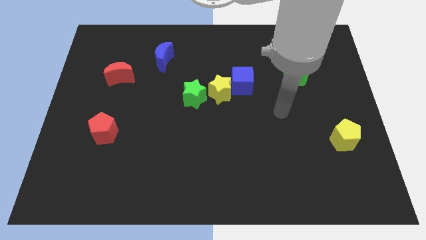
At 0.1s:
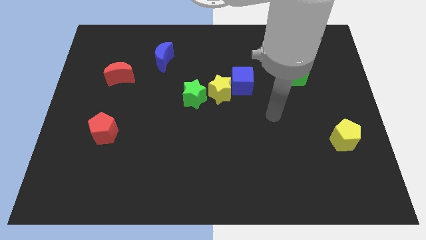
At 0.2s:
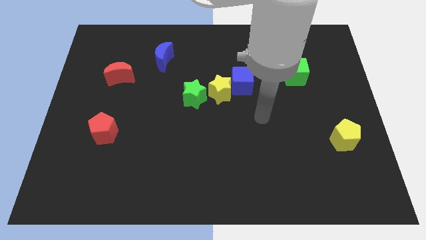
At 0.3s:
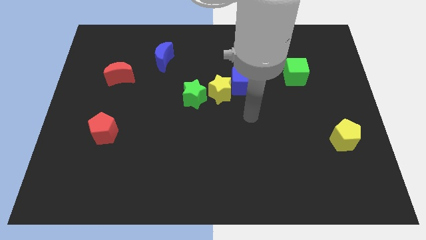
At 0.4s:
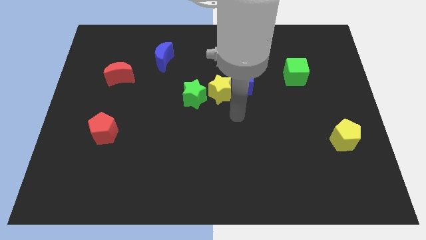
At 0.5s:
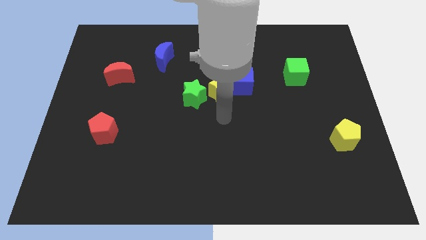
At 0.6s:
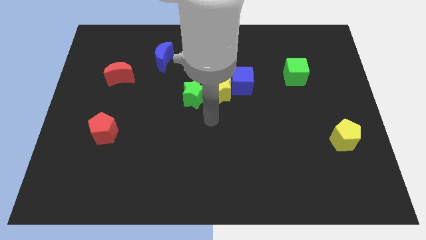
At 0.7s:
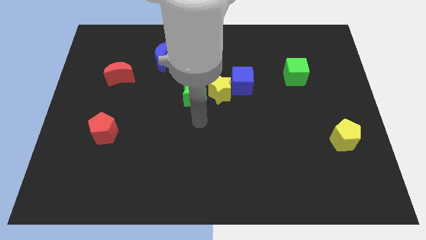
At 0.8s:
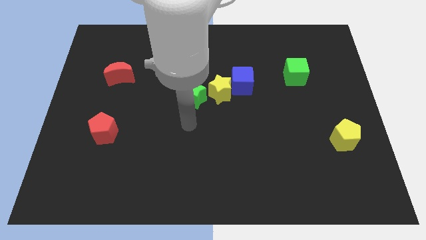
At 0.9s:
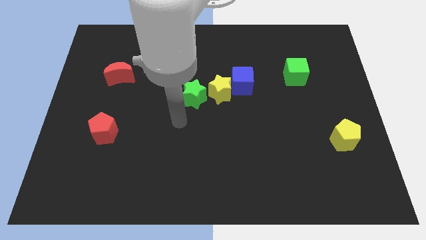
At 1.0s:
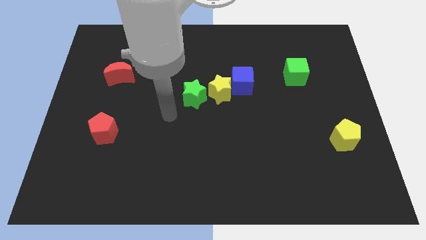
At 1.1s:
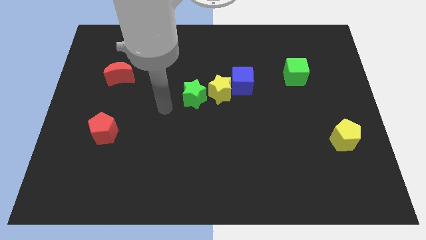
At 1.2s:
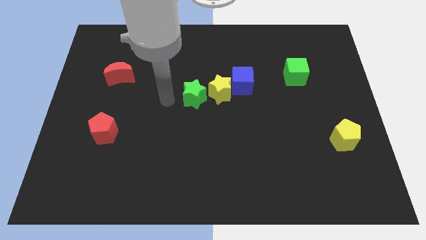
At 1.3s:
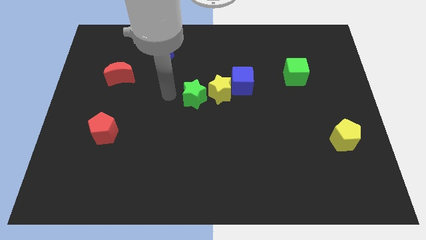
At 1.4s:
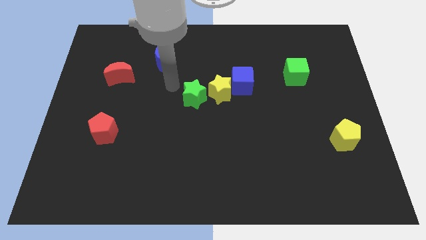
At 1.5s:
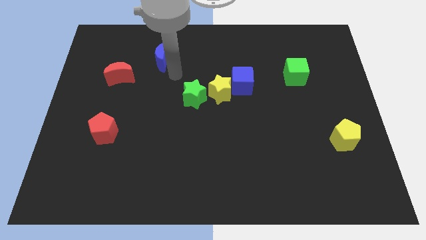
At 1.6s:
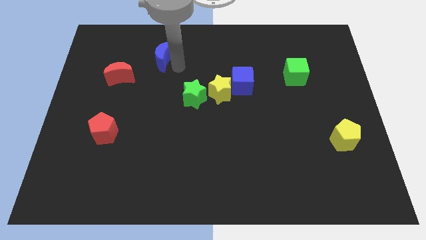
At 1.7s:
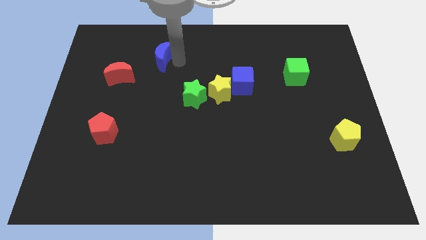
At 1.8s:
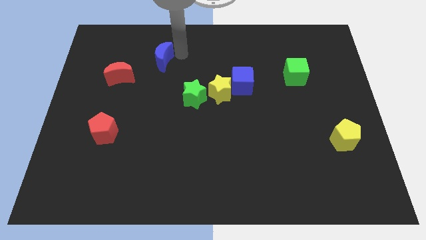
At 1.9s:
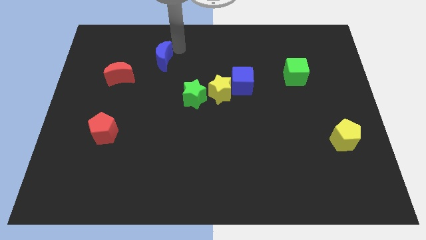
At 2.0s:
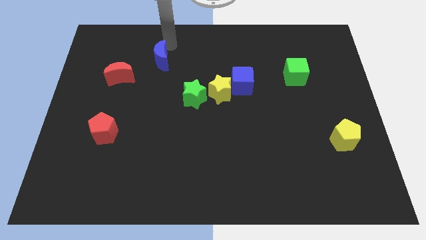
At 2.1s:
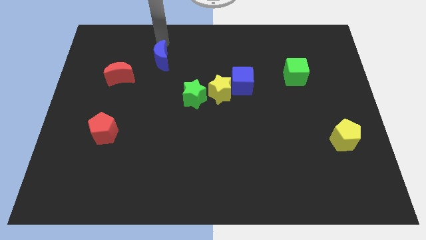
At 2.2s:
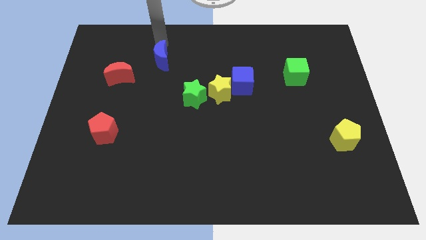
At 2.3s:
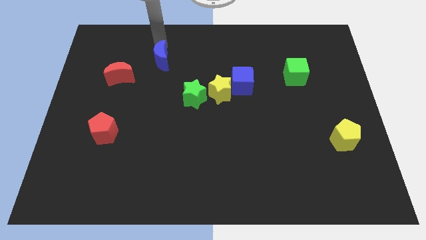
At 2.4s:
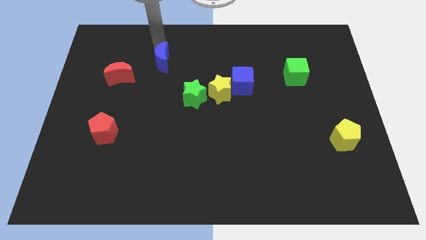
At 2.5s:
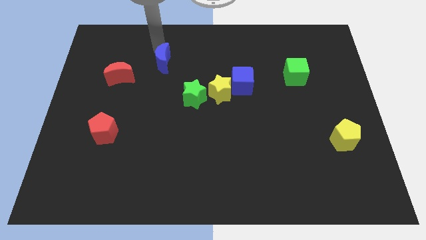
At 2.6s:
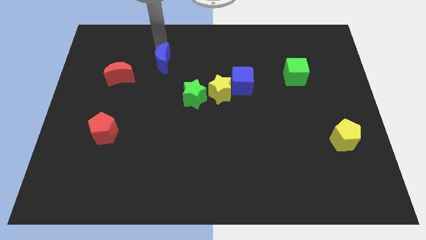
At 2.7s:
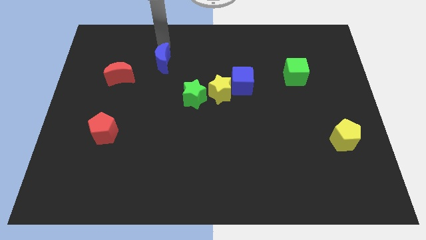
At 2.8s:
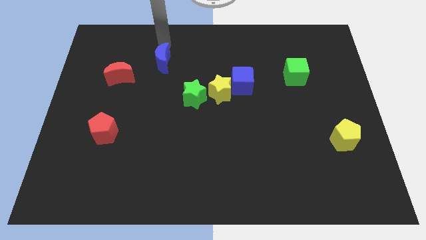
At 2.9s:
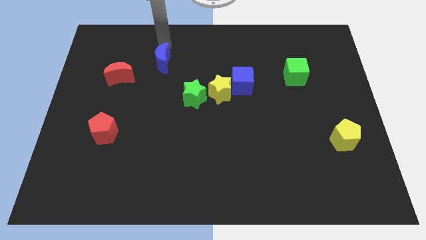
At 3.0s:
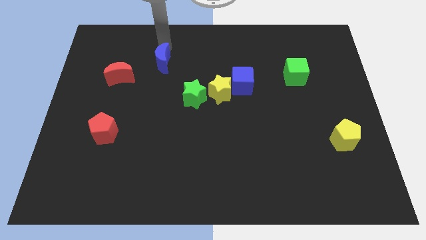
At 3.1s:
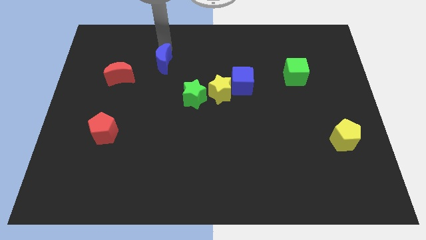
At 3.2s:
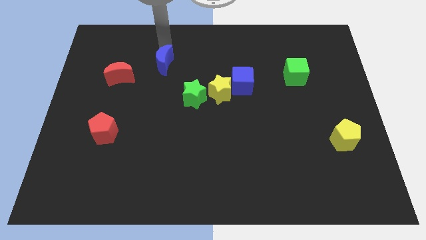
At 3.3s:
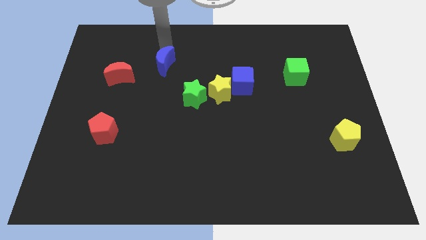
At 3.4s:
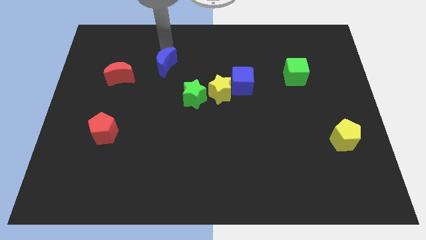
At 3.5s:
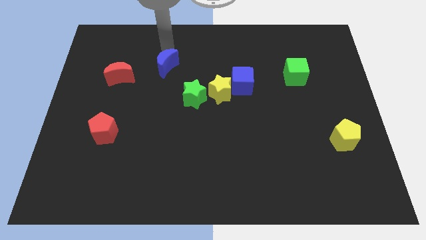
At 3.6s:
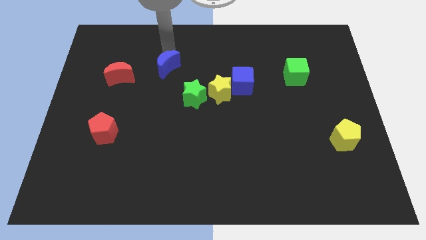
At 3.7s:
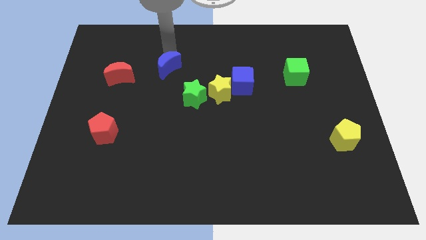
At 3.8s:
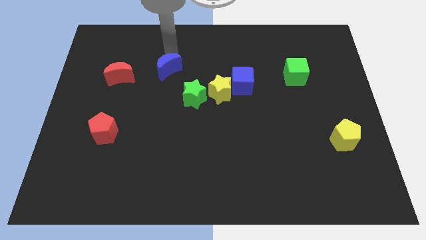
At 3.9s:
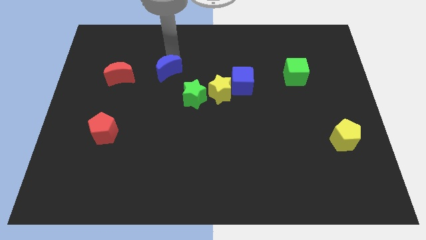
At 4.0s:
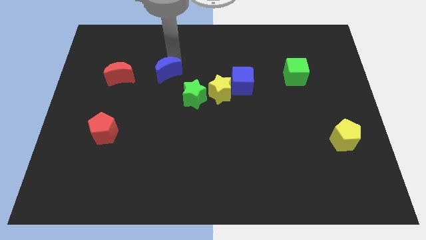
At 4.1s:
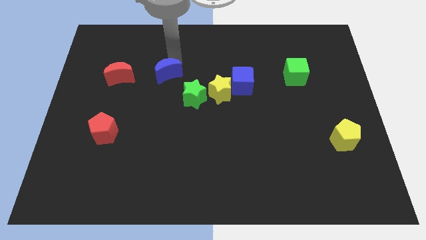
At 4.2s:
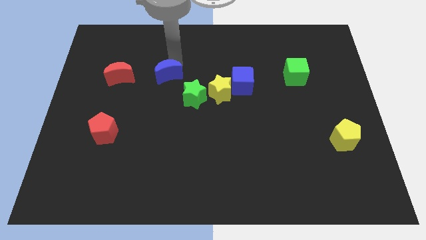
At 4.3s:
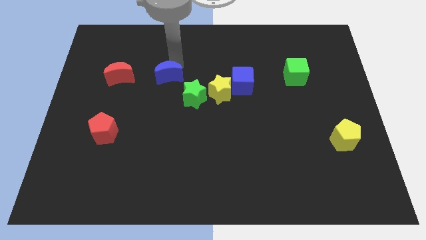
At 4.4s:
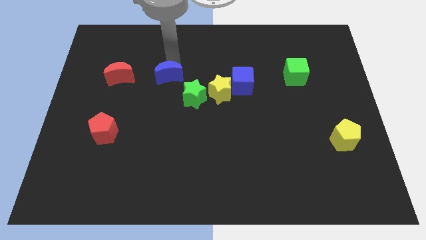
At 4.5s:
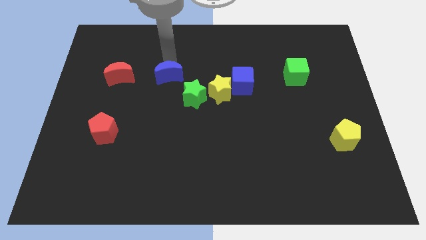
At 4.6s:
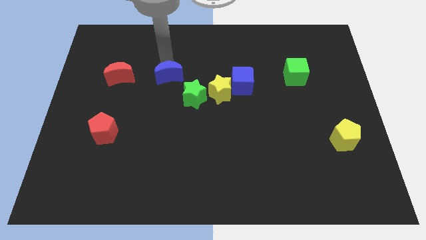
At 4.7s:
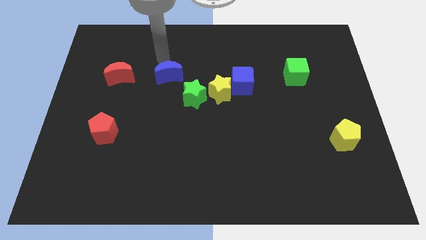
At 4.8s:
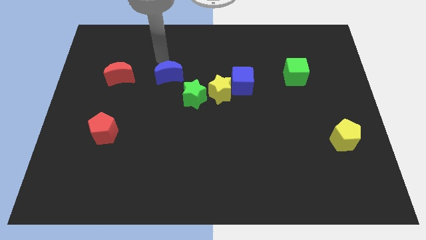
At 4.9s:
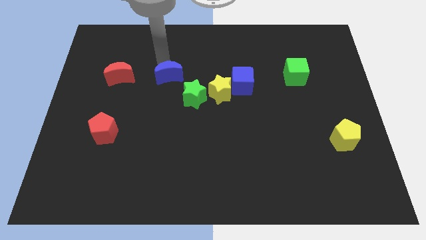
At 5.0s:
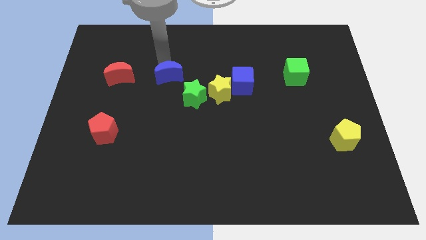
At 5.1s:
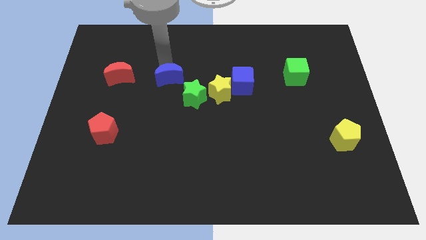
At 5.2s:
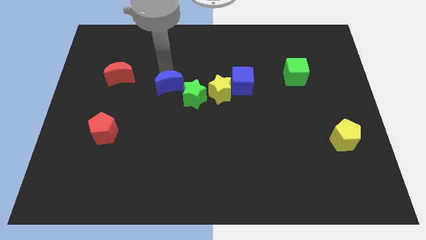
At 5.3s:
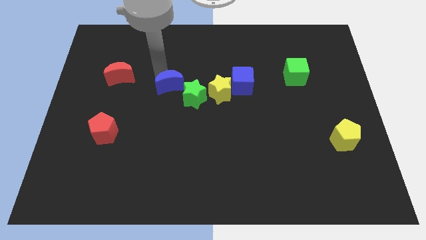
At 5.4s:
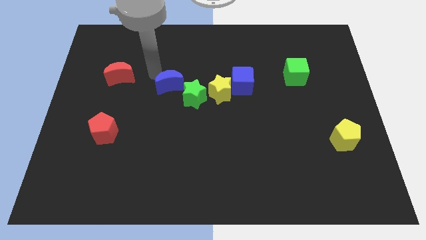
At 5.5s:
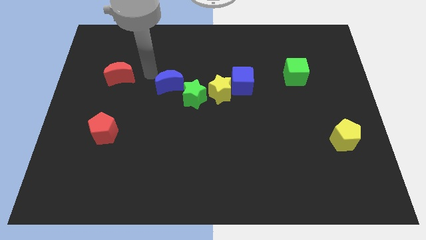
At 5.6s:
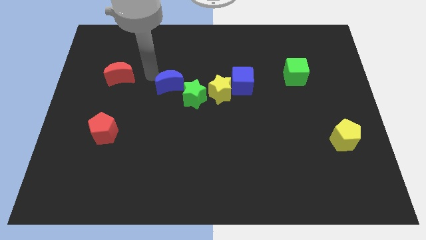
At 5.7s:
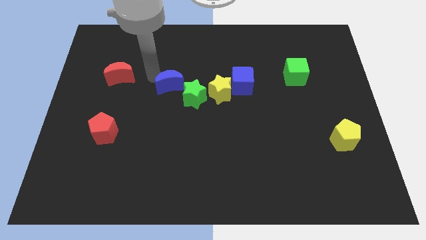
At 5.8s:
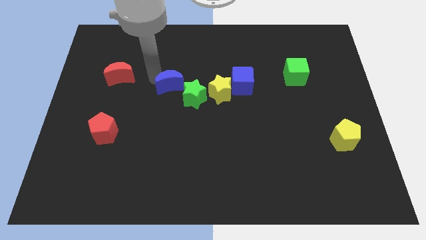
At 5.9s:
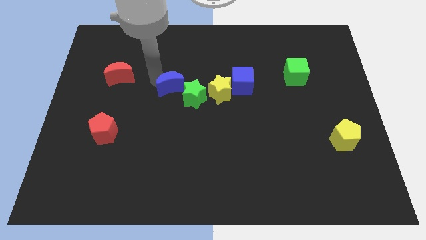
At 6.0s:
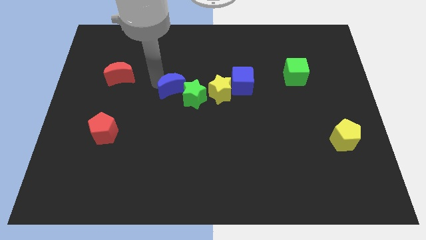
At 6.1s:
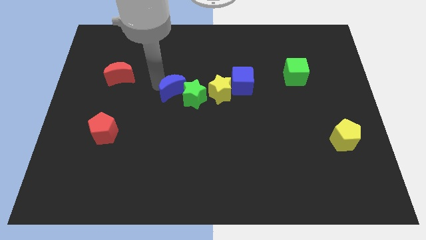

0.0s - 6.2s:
push the blue moon towards the green star

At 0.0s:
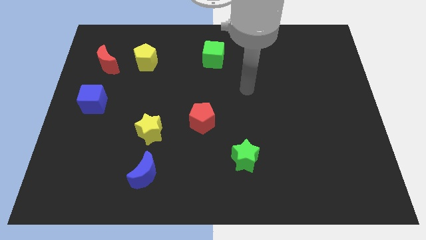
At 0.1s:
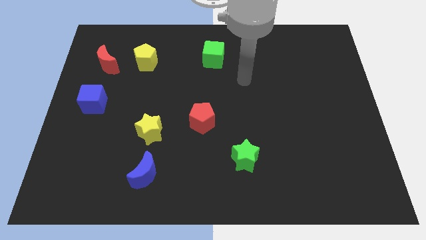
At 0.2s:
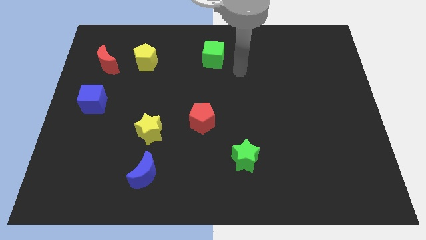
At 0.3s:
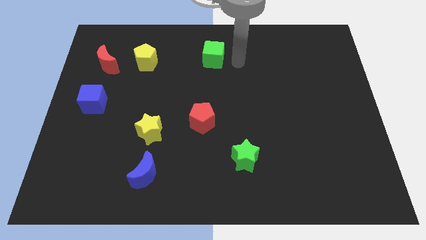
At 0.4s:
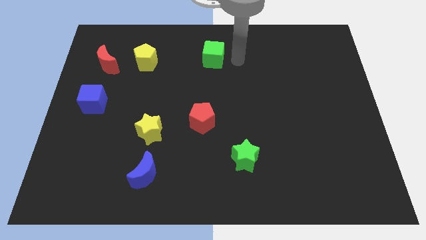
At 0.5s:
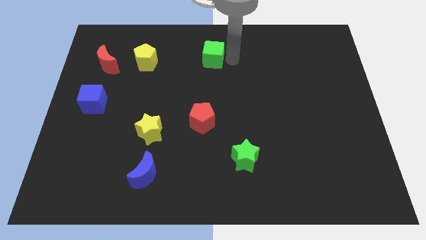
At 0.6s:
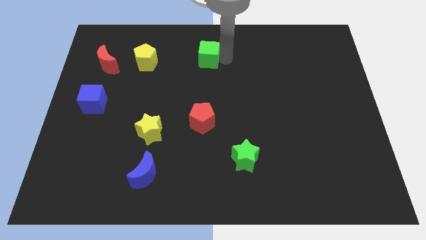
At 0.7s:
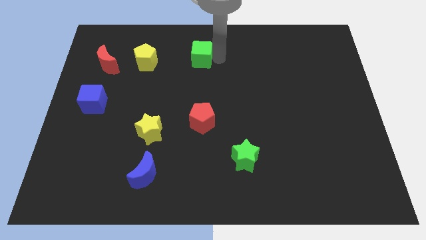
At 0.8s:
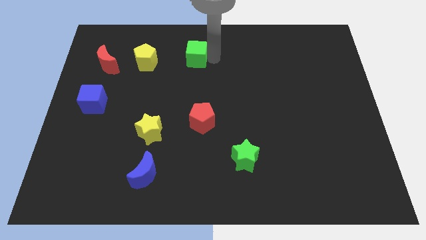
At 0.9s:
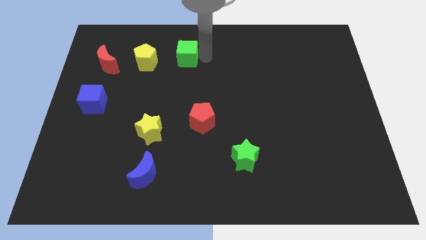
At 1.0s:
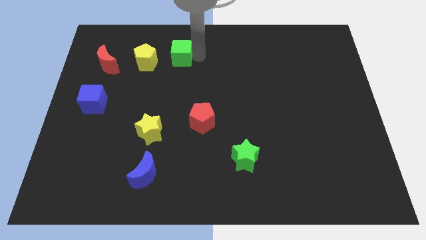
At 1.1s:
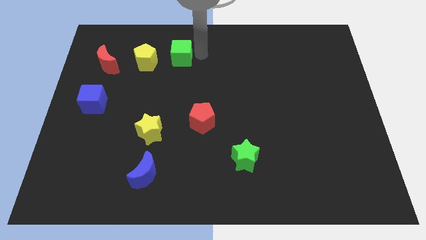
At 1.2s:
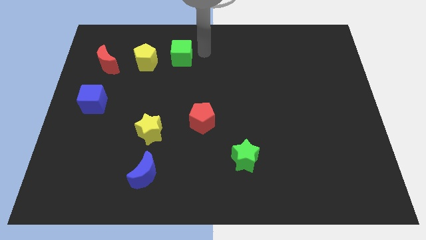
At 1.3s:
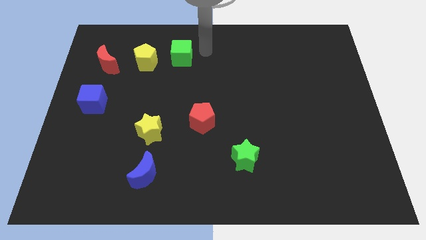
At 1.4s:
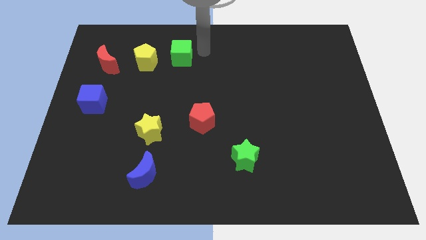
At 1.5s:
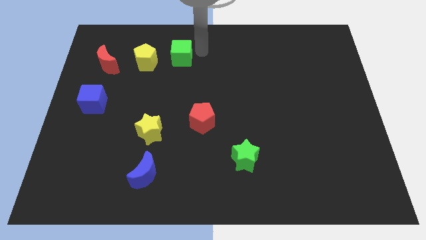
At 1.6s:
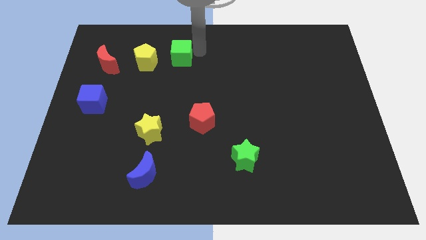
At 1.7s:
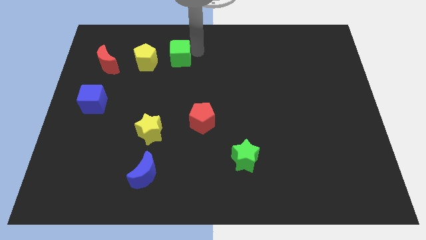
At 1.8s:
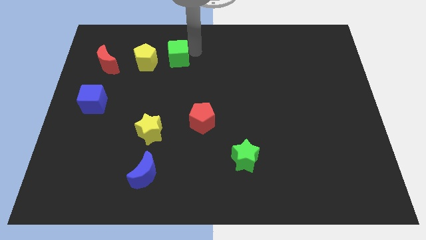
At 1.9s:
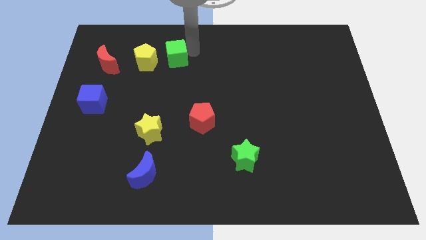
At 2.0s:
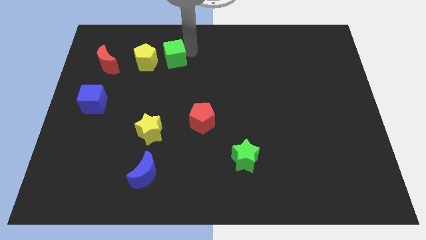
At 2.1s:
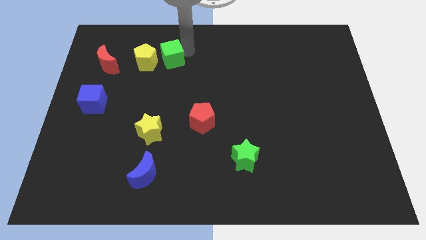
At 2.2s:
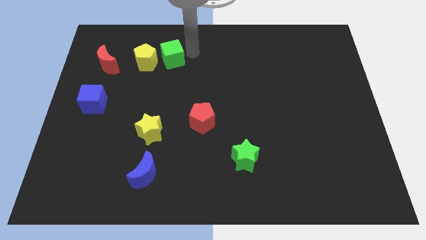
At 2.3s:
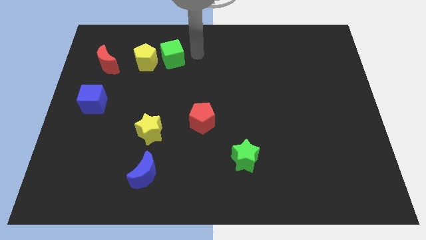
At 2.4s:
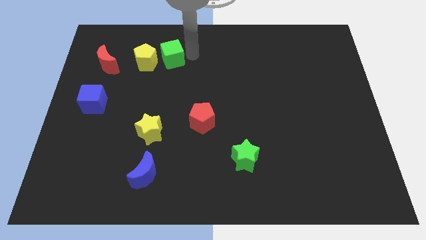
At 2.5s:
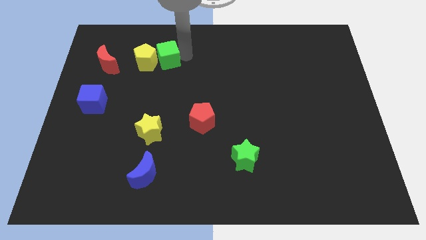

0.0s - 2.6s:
push the green cube close to the yellow pentagon
